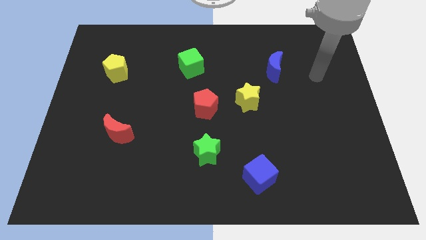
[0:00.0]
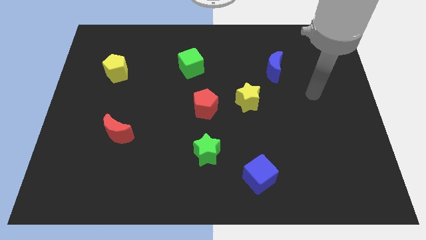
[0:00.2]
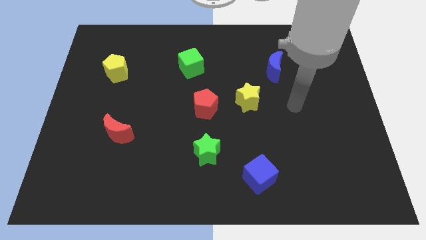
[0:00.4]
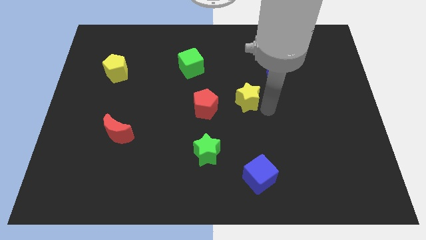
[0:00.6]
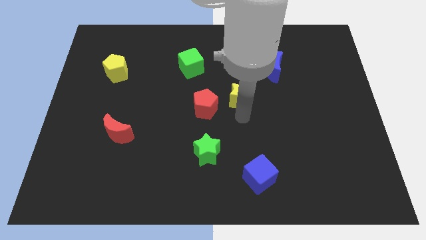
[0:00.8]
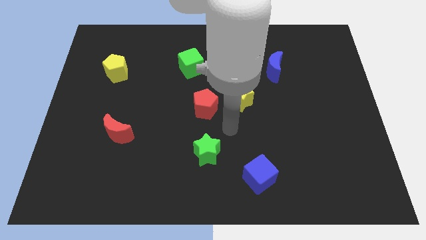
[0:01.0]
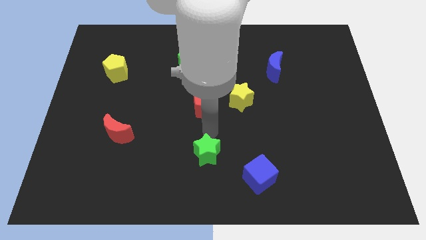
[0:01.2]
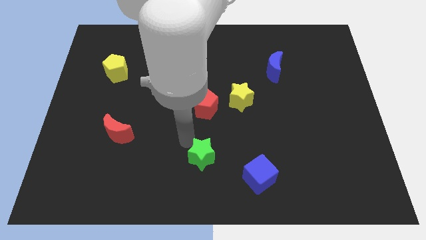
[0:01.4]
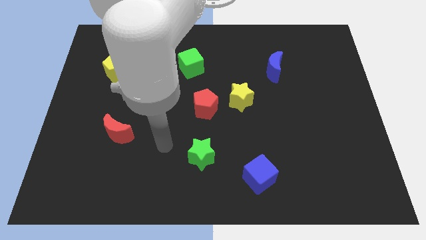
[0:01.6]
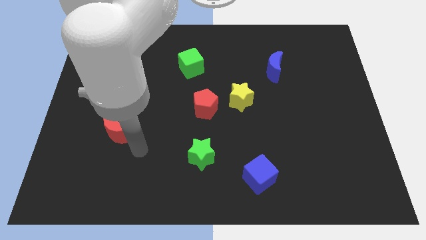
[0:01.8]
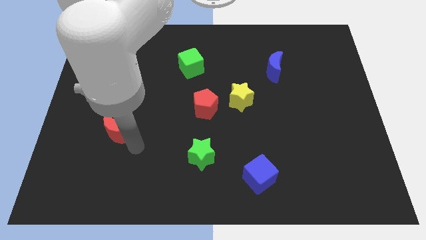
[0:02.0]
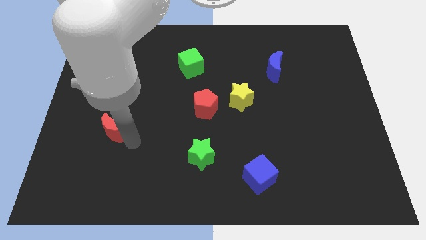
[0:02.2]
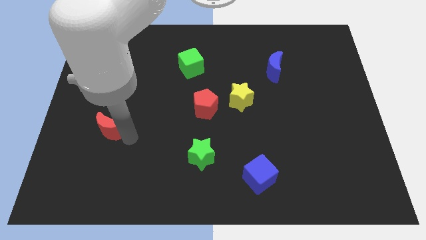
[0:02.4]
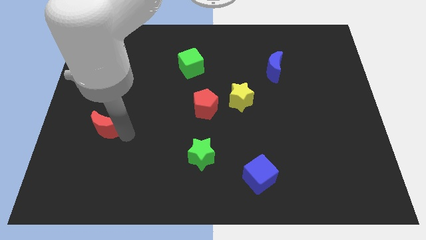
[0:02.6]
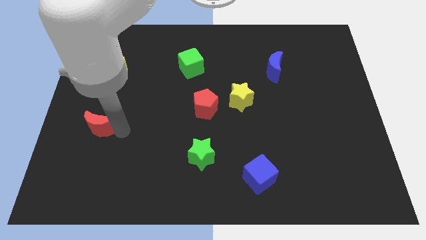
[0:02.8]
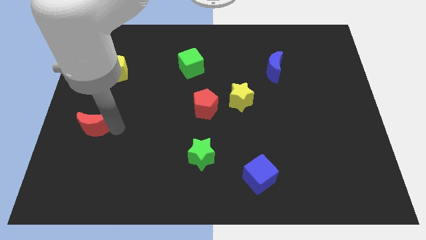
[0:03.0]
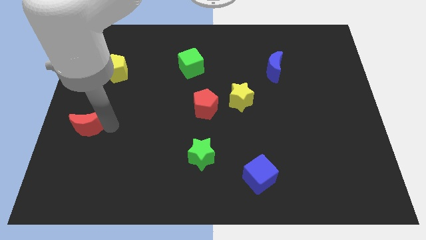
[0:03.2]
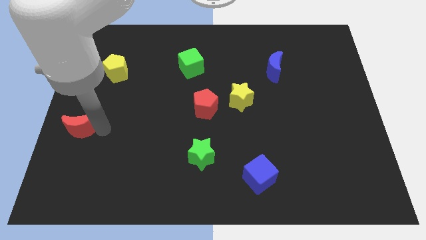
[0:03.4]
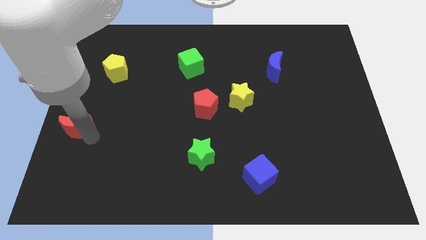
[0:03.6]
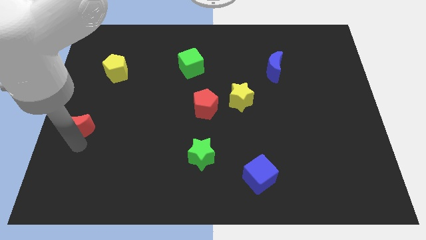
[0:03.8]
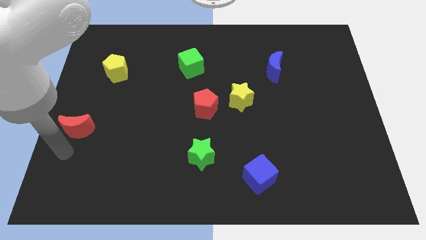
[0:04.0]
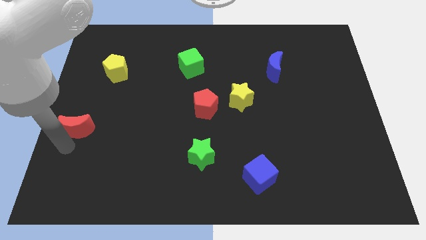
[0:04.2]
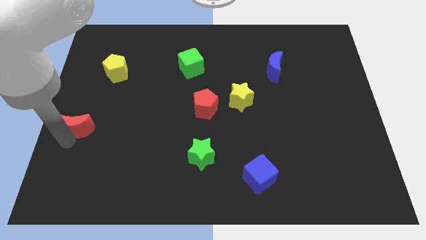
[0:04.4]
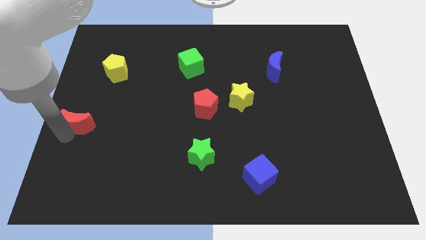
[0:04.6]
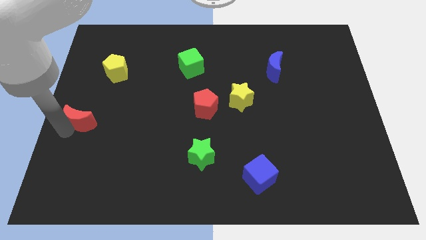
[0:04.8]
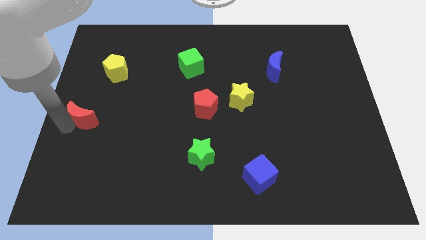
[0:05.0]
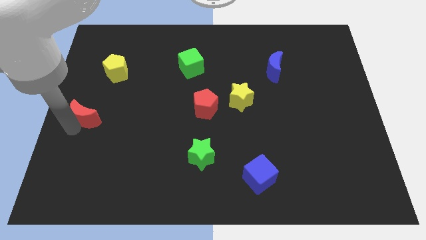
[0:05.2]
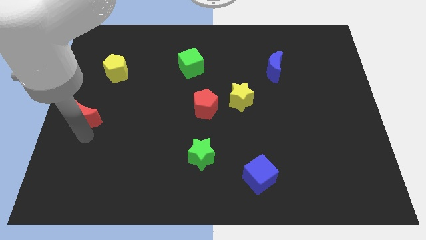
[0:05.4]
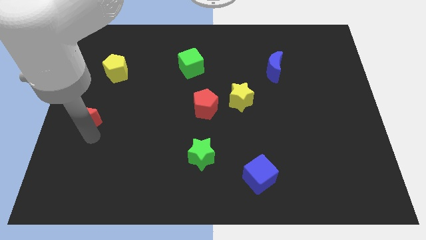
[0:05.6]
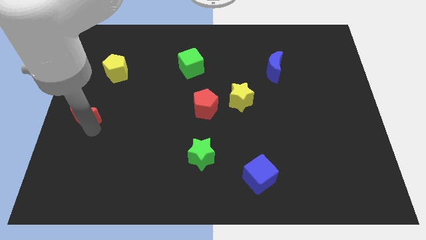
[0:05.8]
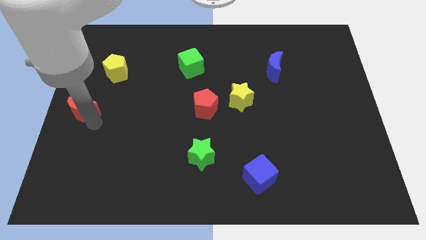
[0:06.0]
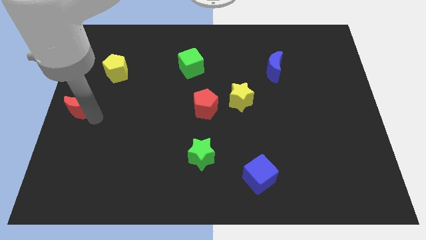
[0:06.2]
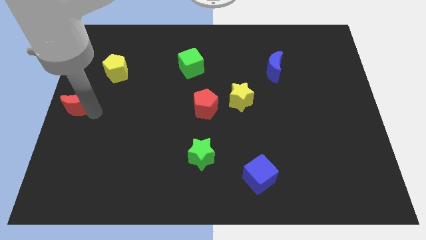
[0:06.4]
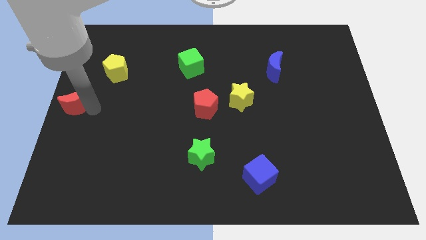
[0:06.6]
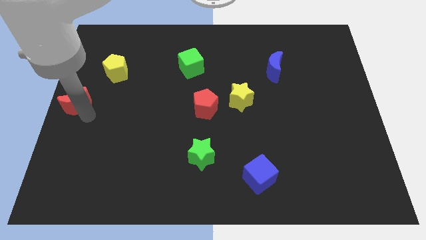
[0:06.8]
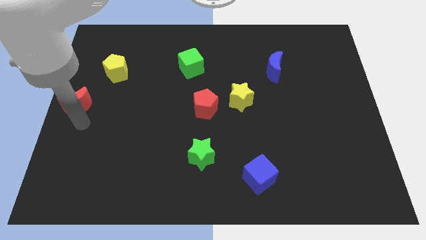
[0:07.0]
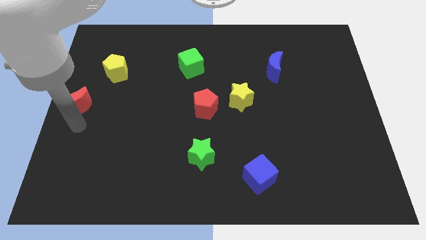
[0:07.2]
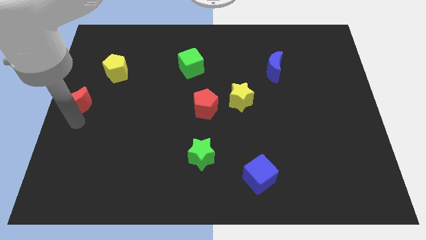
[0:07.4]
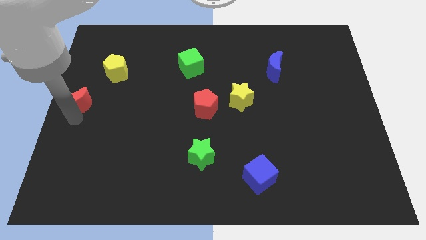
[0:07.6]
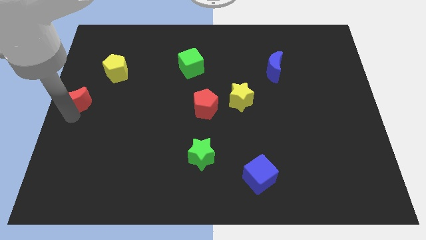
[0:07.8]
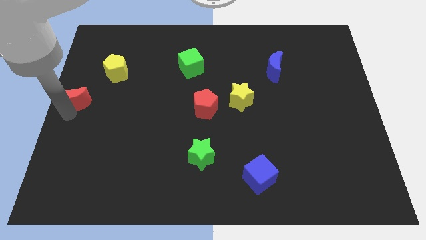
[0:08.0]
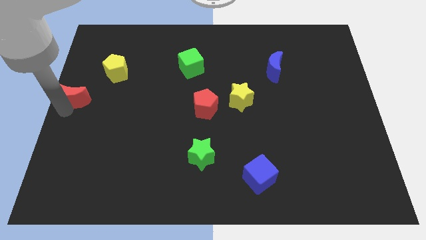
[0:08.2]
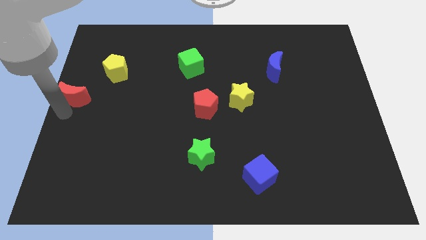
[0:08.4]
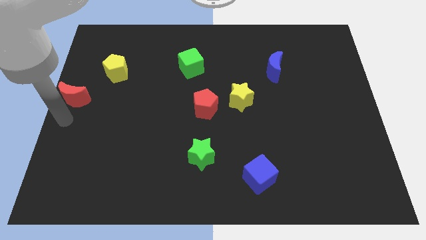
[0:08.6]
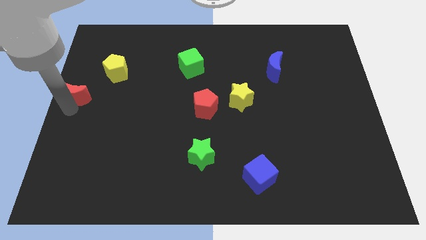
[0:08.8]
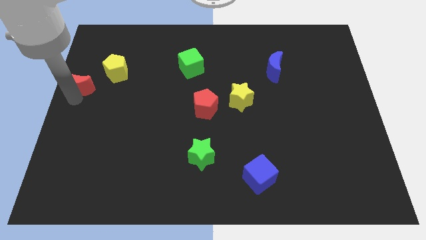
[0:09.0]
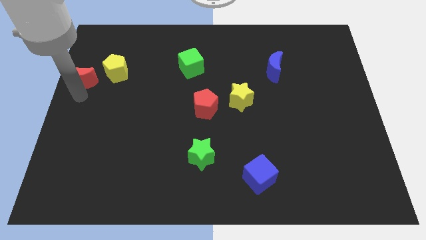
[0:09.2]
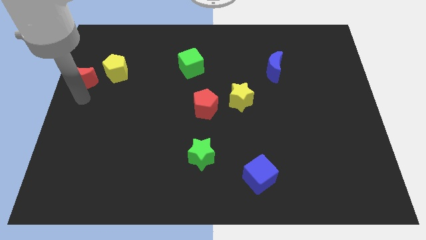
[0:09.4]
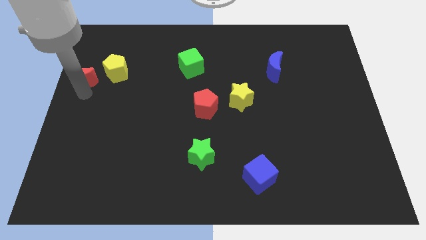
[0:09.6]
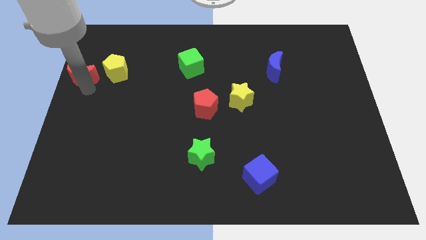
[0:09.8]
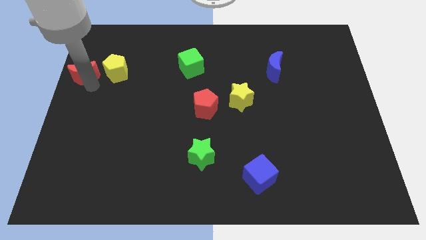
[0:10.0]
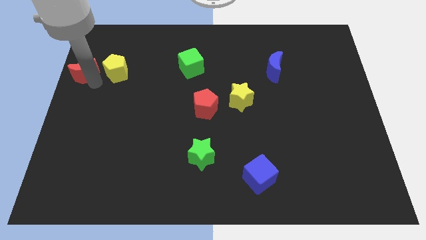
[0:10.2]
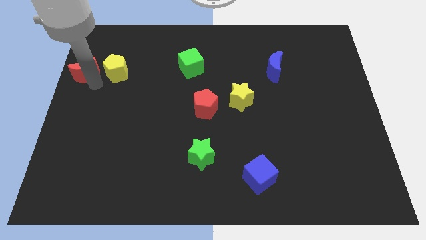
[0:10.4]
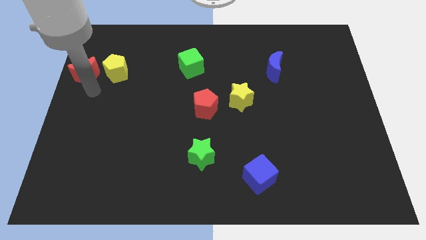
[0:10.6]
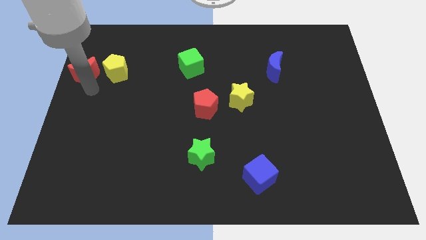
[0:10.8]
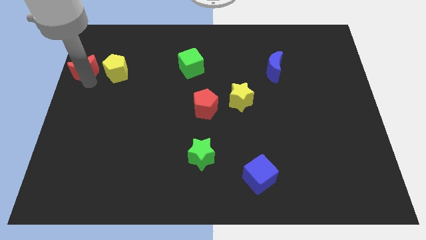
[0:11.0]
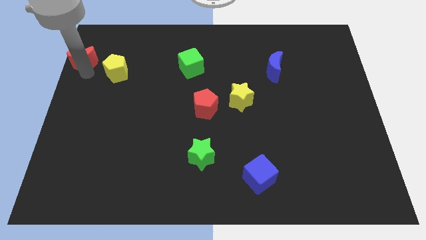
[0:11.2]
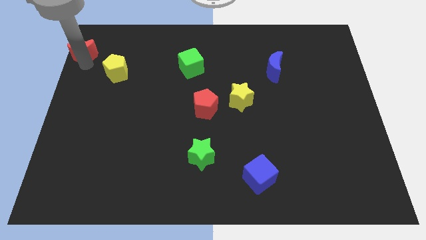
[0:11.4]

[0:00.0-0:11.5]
push the red moon to the upper left corner

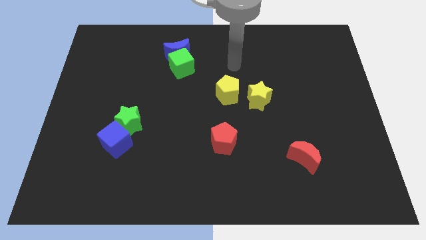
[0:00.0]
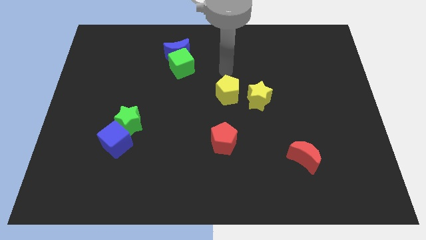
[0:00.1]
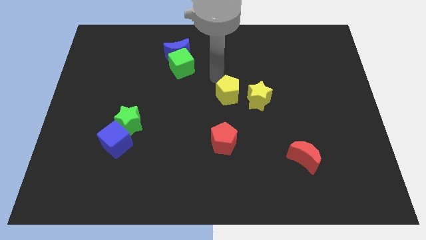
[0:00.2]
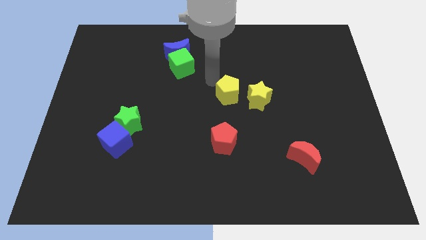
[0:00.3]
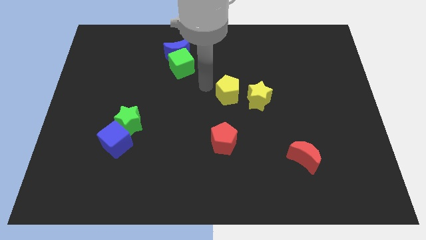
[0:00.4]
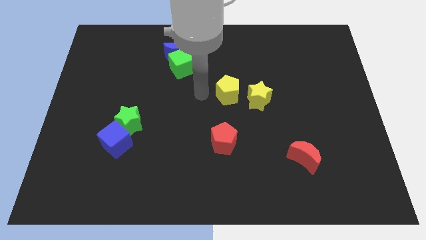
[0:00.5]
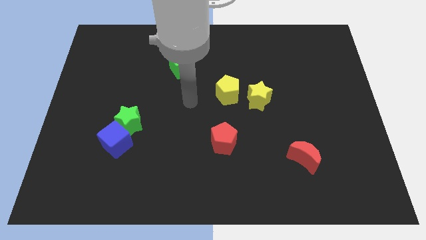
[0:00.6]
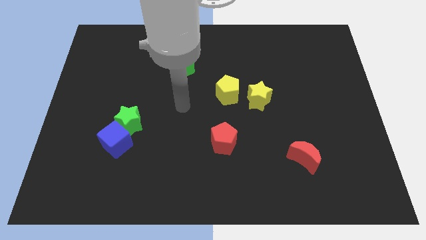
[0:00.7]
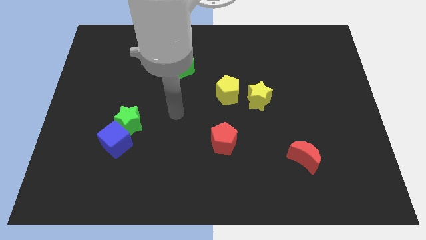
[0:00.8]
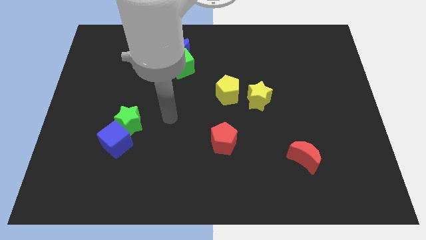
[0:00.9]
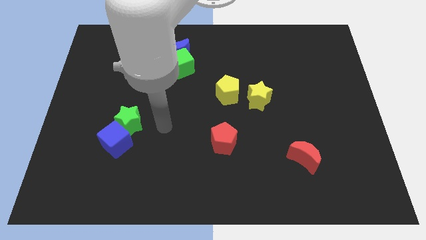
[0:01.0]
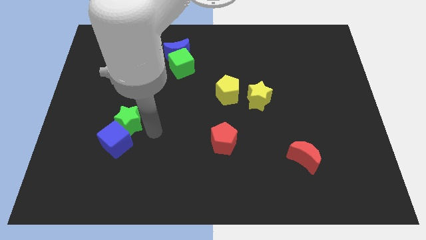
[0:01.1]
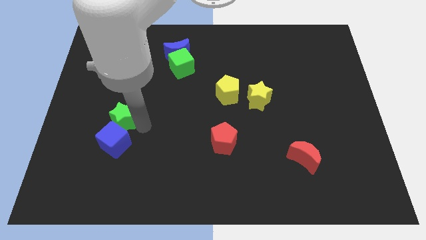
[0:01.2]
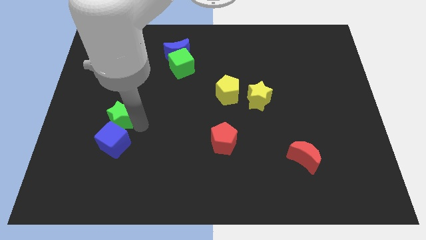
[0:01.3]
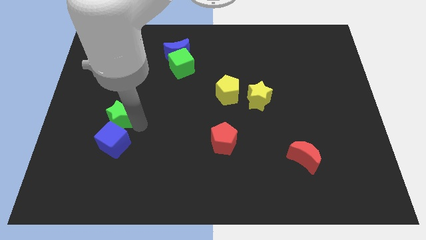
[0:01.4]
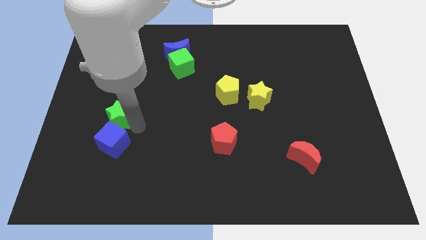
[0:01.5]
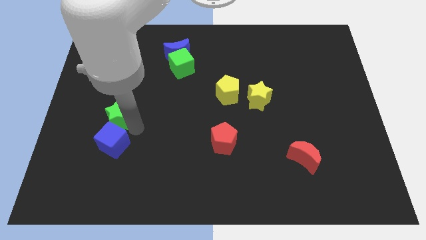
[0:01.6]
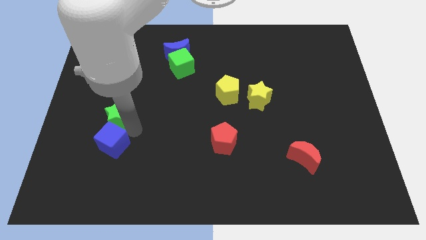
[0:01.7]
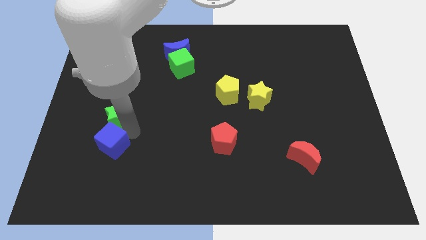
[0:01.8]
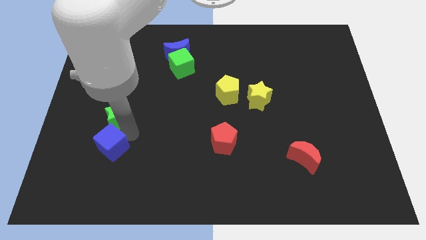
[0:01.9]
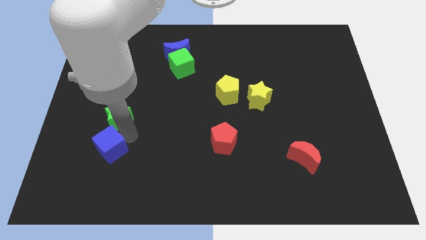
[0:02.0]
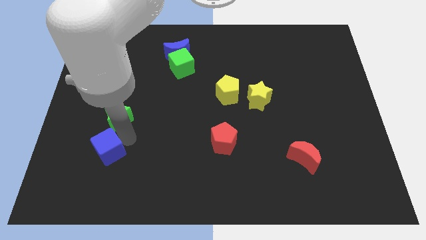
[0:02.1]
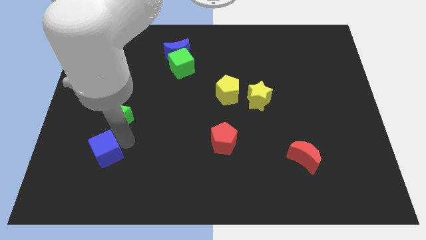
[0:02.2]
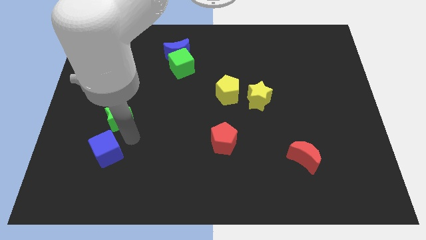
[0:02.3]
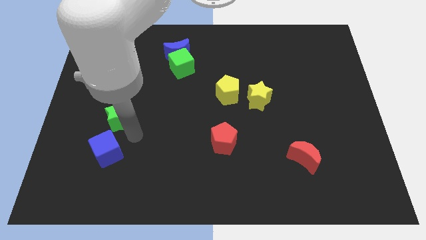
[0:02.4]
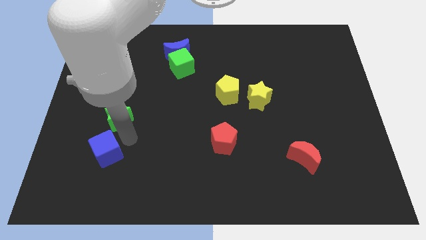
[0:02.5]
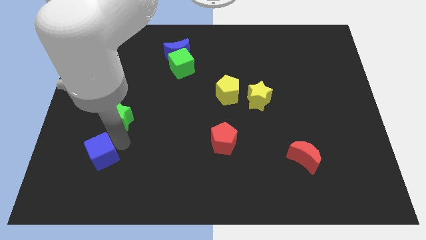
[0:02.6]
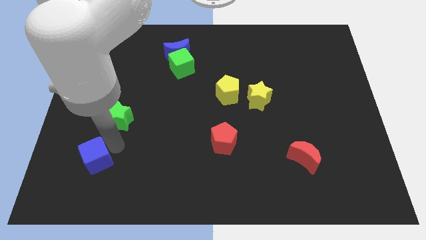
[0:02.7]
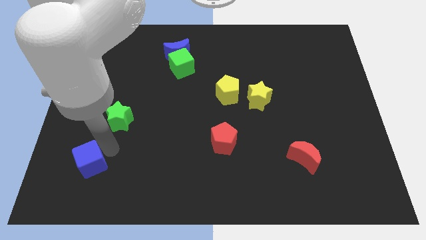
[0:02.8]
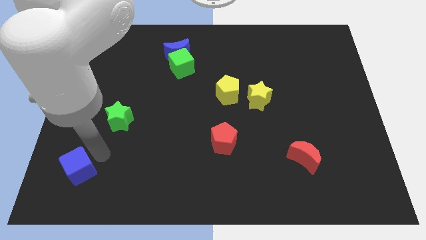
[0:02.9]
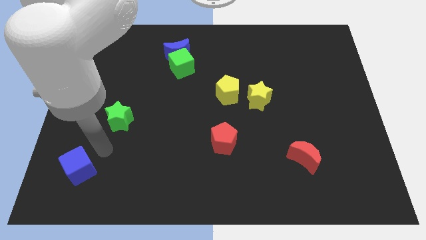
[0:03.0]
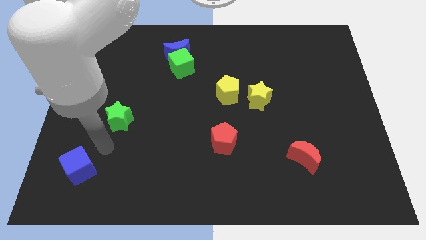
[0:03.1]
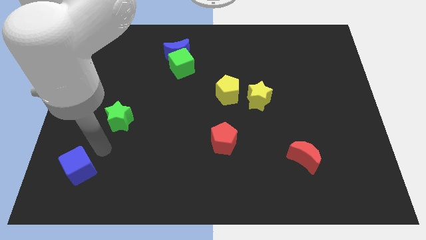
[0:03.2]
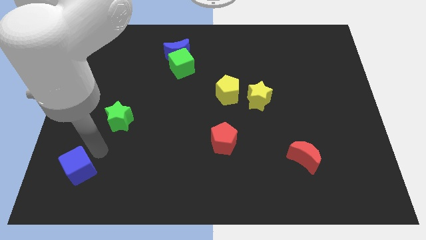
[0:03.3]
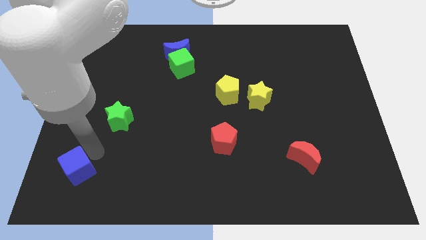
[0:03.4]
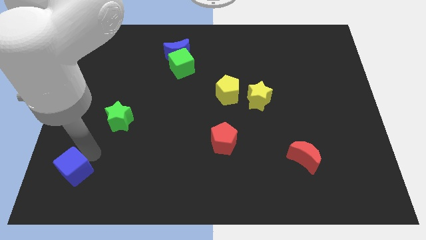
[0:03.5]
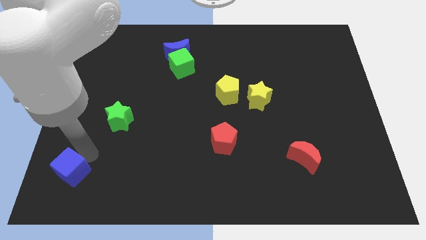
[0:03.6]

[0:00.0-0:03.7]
push the blue cube to the bottom left corner
